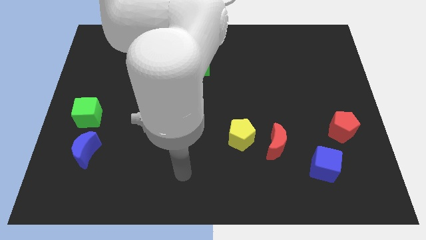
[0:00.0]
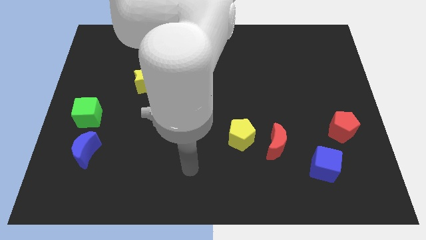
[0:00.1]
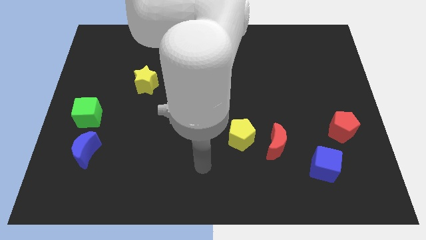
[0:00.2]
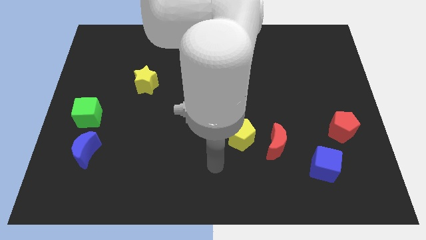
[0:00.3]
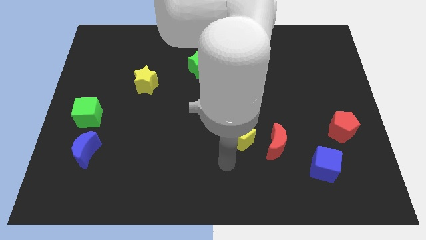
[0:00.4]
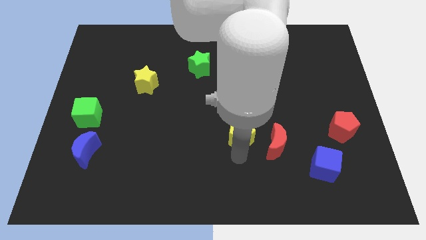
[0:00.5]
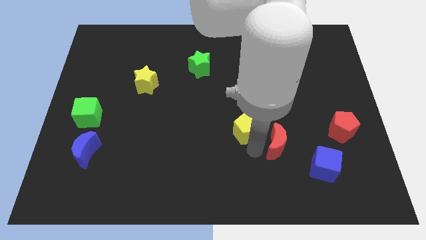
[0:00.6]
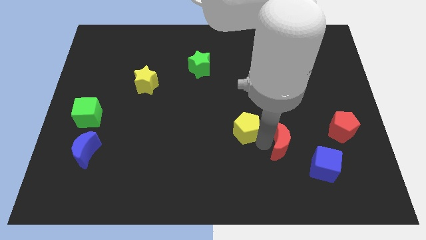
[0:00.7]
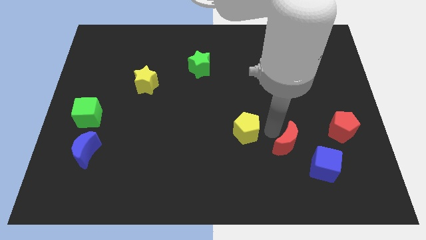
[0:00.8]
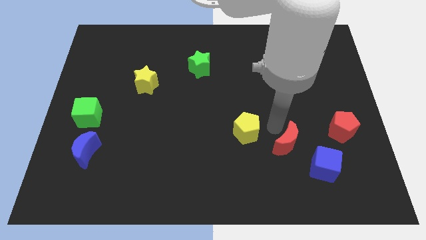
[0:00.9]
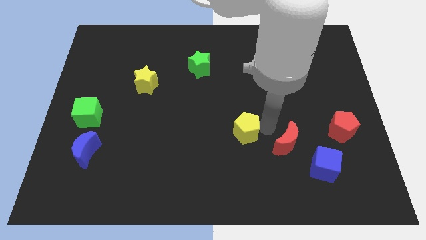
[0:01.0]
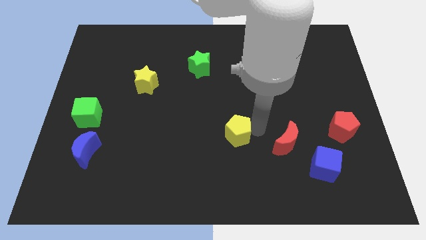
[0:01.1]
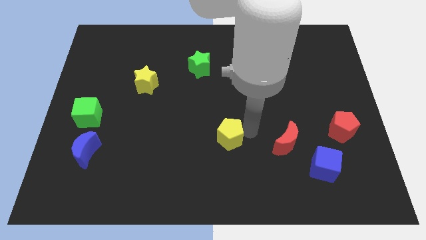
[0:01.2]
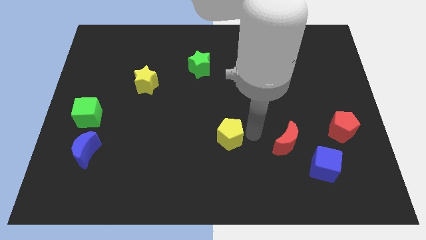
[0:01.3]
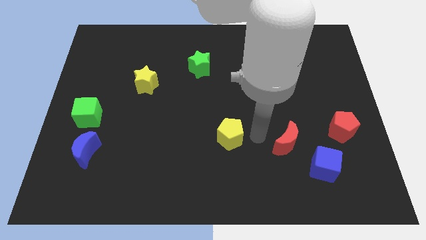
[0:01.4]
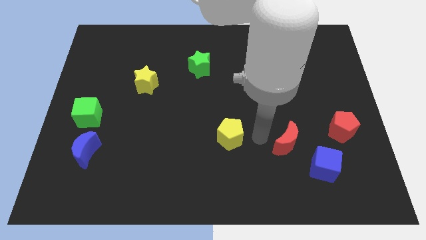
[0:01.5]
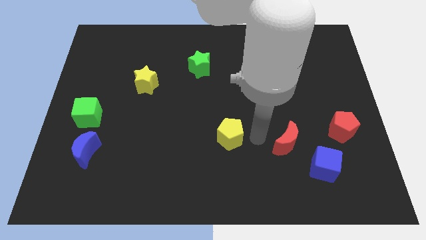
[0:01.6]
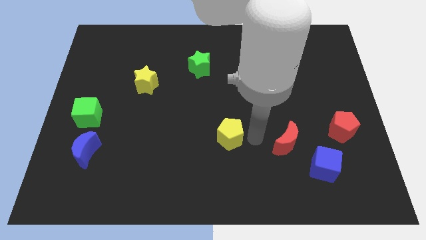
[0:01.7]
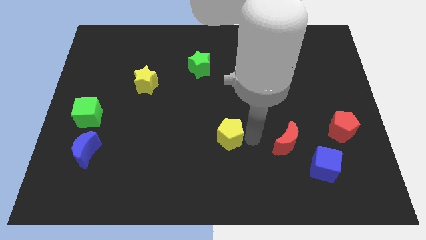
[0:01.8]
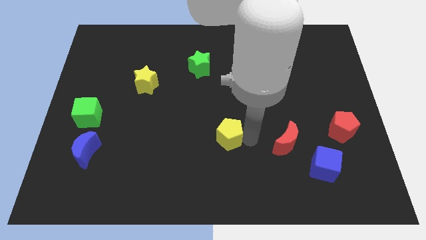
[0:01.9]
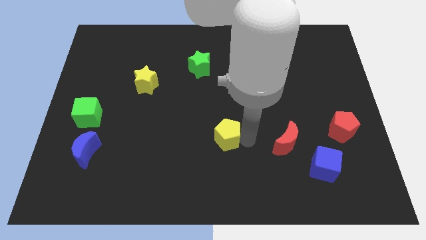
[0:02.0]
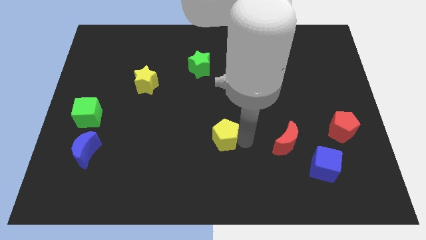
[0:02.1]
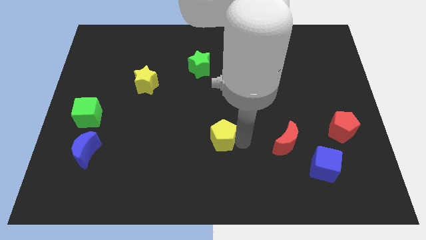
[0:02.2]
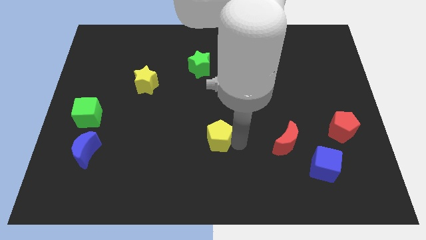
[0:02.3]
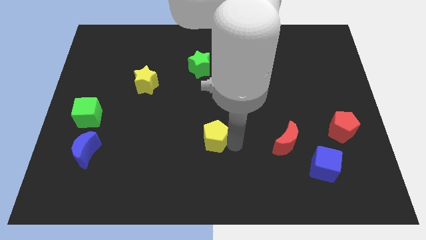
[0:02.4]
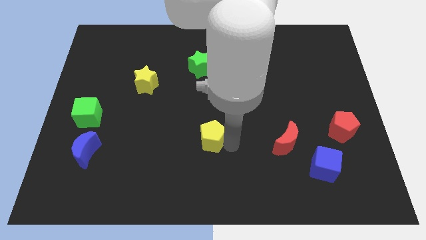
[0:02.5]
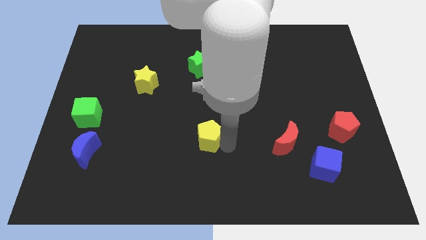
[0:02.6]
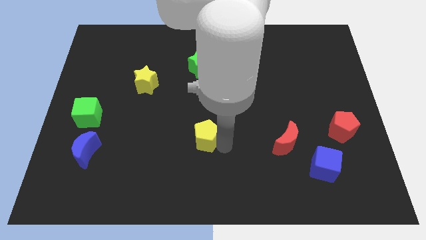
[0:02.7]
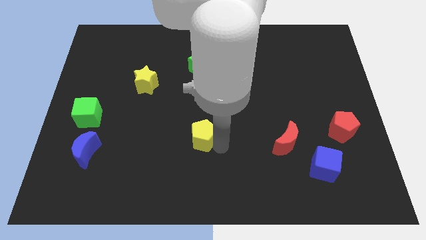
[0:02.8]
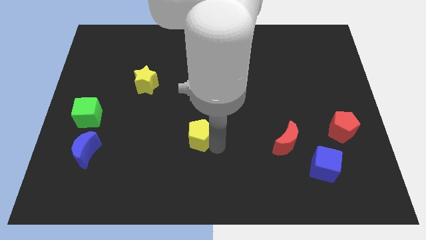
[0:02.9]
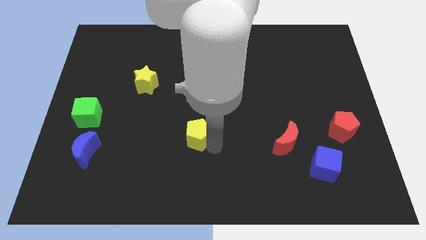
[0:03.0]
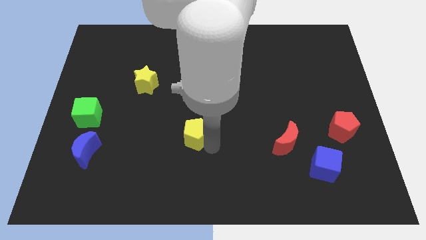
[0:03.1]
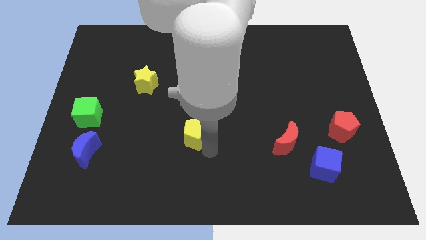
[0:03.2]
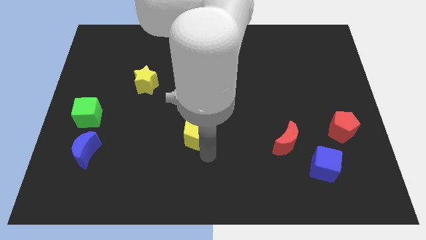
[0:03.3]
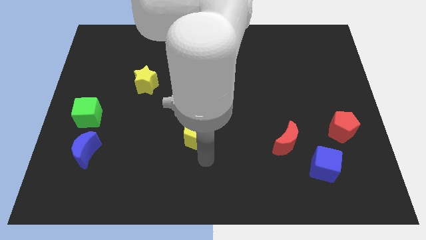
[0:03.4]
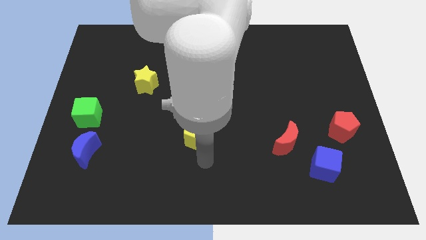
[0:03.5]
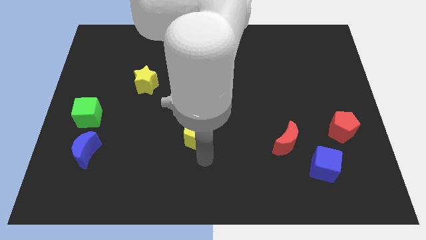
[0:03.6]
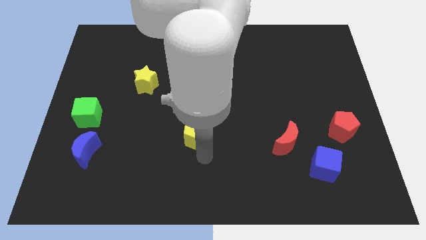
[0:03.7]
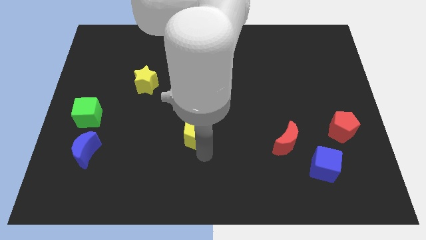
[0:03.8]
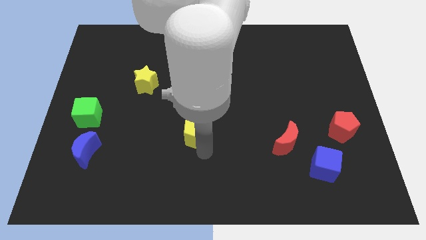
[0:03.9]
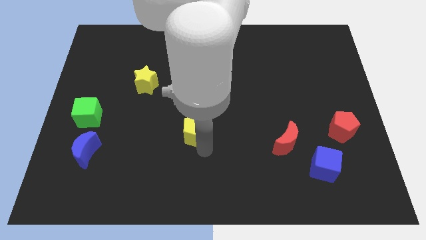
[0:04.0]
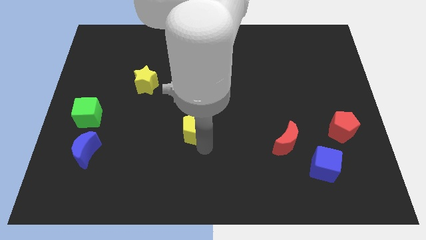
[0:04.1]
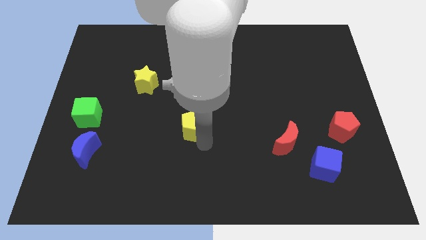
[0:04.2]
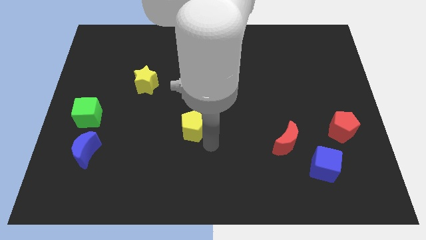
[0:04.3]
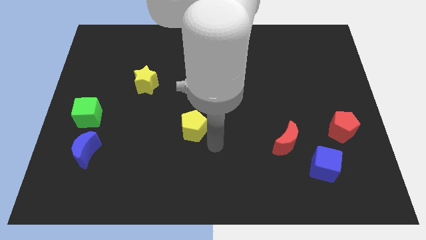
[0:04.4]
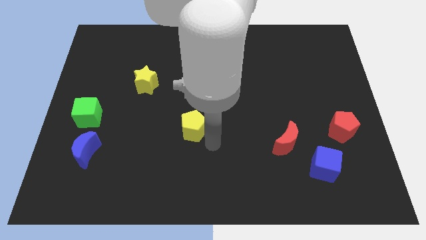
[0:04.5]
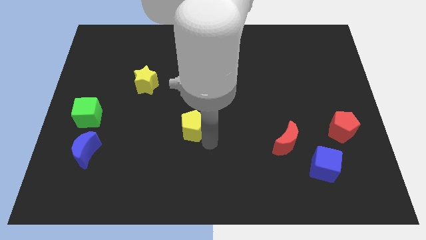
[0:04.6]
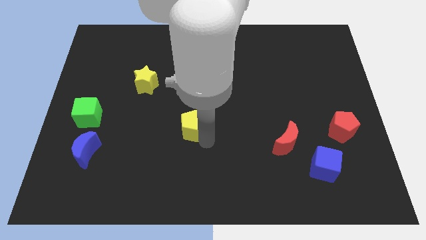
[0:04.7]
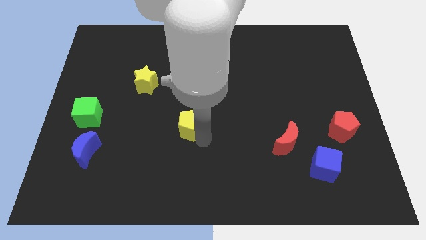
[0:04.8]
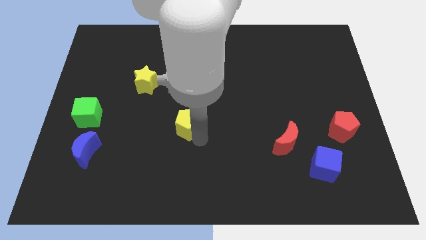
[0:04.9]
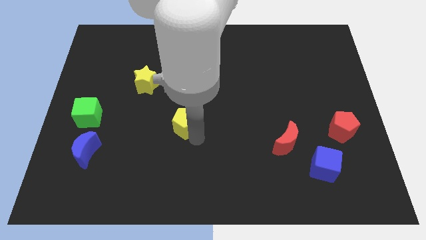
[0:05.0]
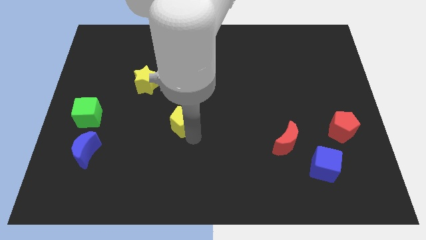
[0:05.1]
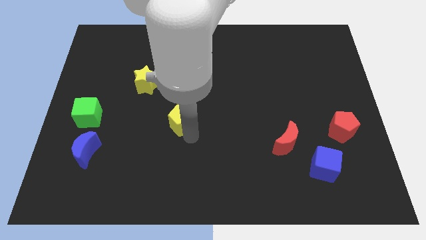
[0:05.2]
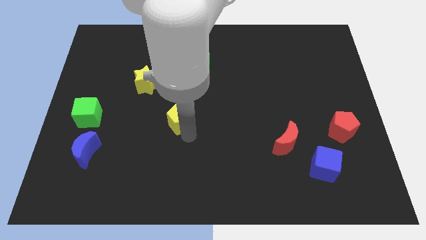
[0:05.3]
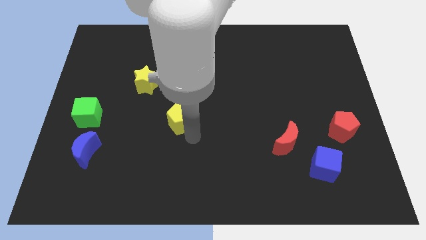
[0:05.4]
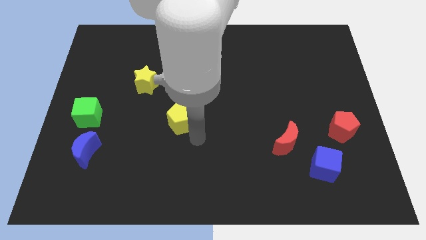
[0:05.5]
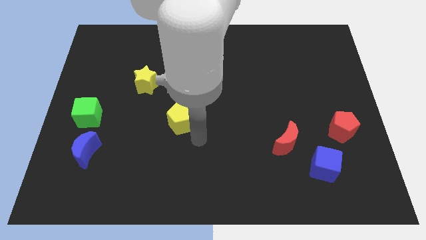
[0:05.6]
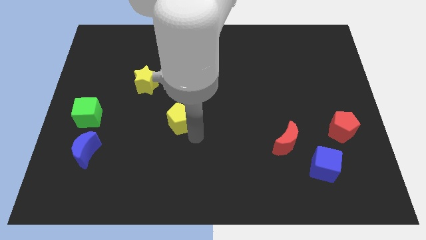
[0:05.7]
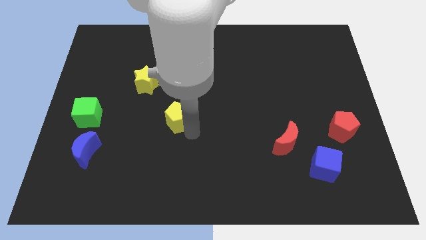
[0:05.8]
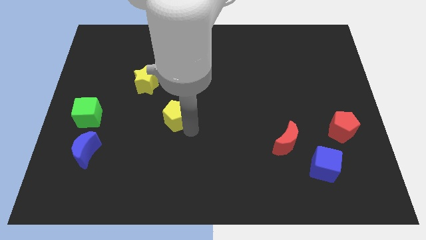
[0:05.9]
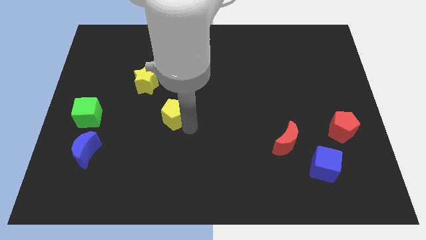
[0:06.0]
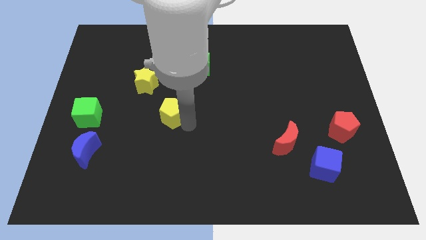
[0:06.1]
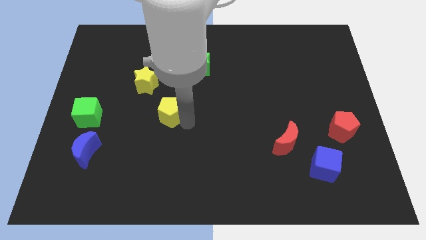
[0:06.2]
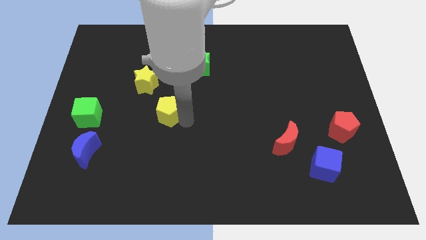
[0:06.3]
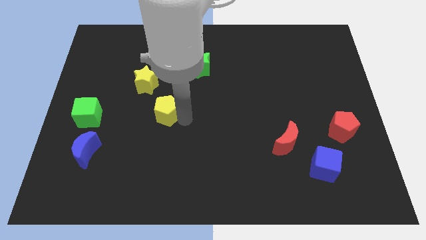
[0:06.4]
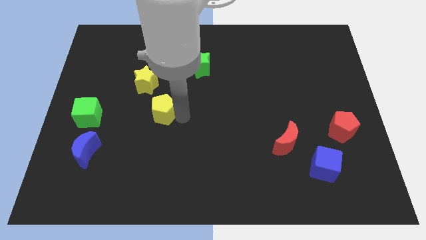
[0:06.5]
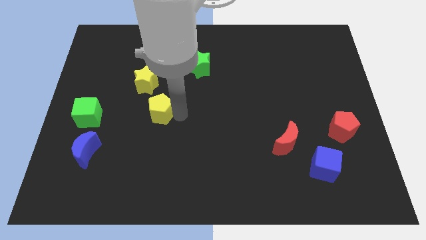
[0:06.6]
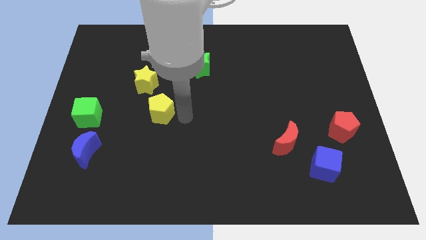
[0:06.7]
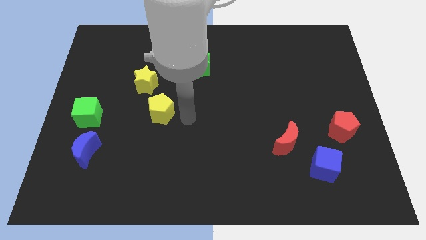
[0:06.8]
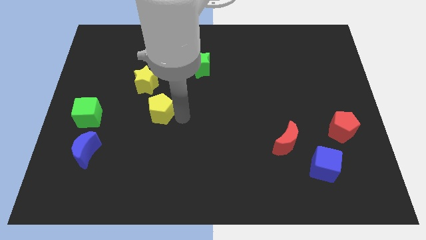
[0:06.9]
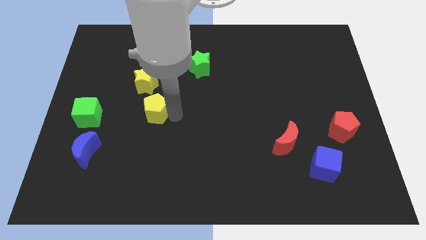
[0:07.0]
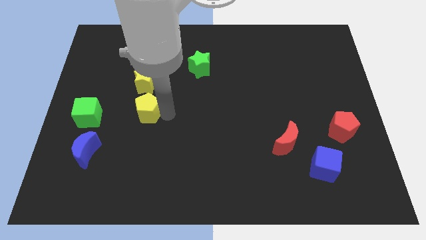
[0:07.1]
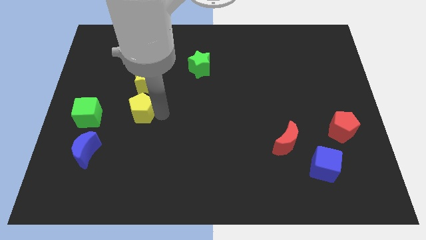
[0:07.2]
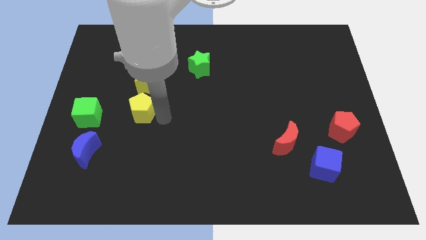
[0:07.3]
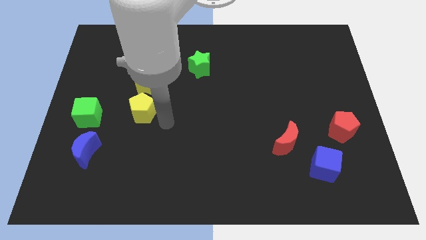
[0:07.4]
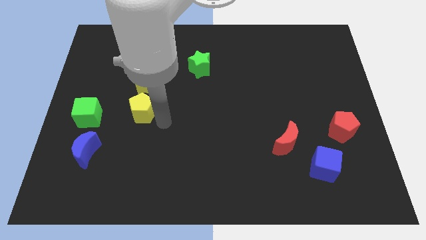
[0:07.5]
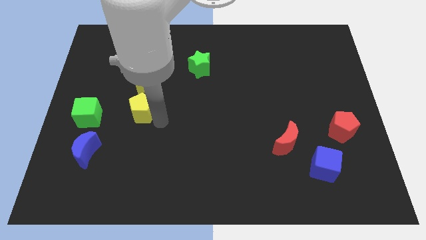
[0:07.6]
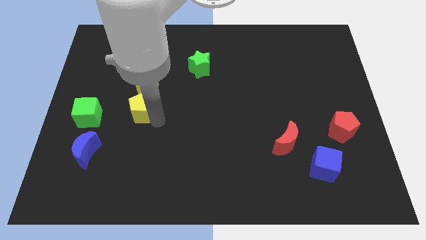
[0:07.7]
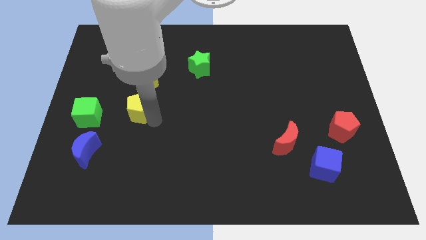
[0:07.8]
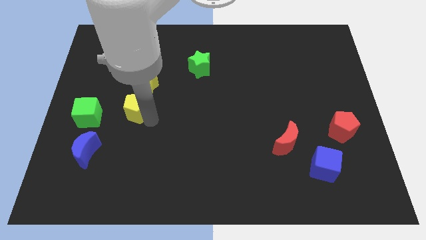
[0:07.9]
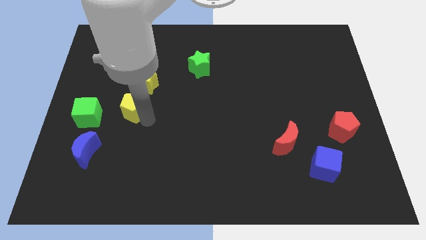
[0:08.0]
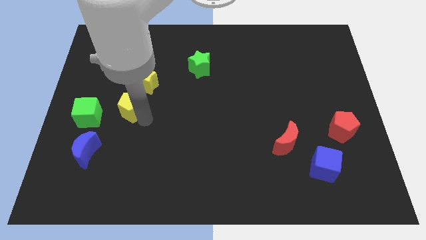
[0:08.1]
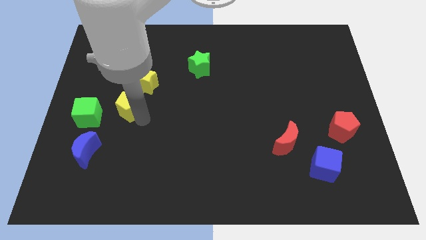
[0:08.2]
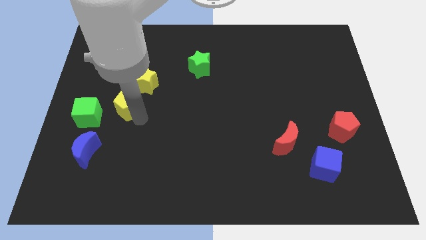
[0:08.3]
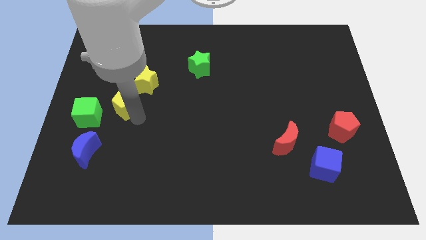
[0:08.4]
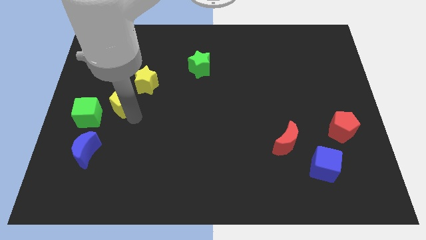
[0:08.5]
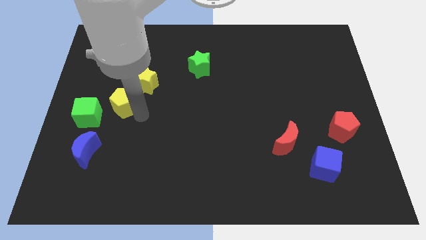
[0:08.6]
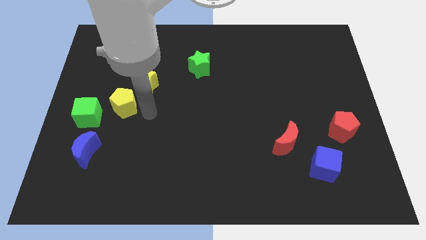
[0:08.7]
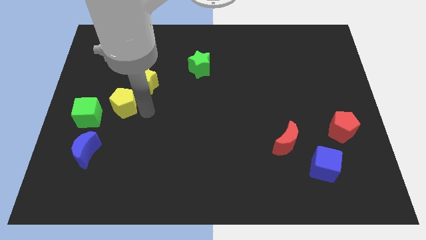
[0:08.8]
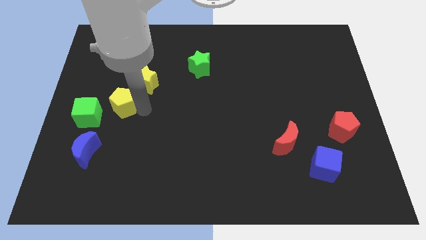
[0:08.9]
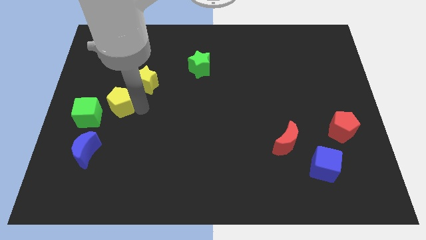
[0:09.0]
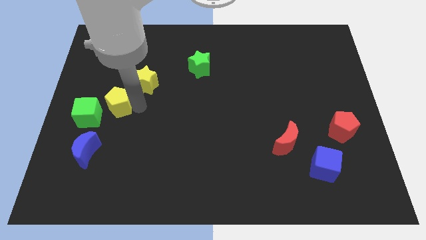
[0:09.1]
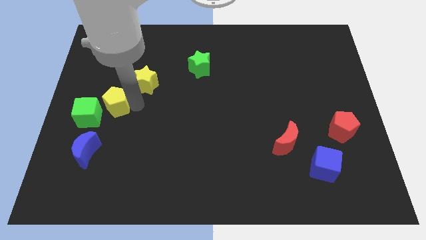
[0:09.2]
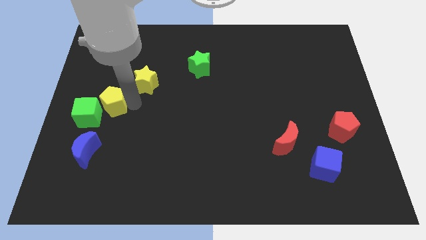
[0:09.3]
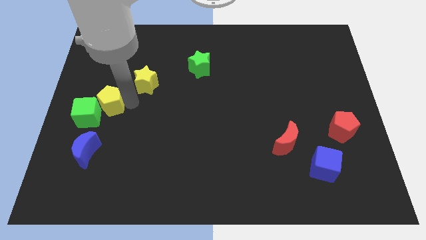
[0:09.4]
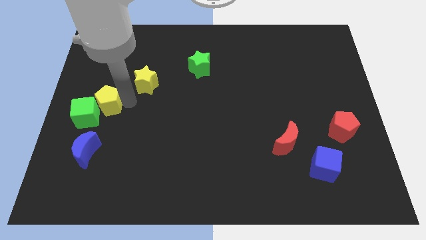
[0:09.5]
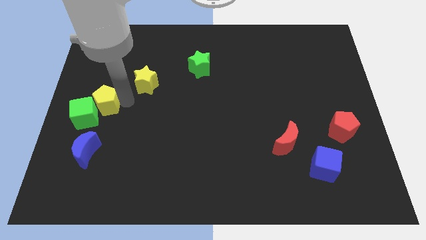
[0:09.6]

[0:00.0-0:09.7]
move the yellow pentagon to the left side of the board
